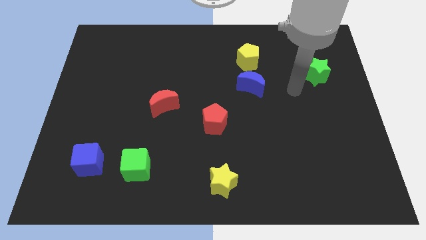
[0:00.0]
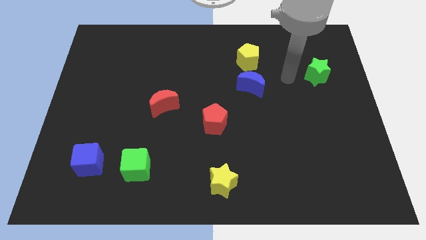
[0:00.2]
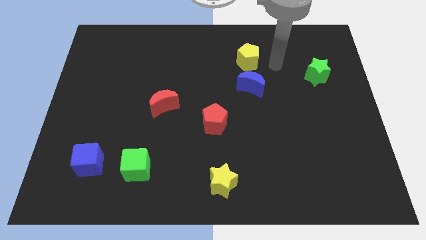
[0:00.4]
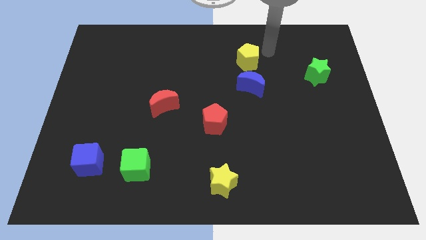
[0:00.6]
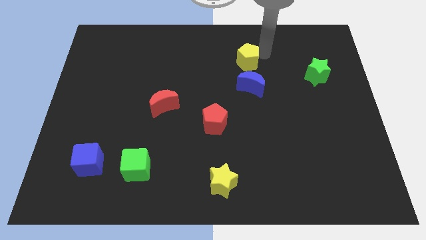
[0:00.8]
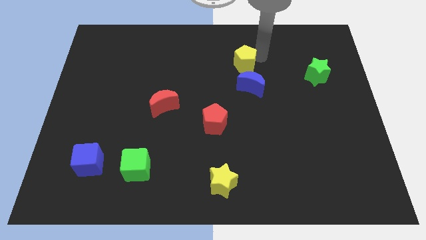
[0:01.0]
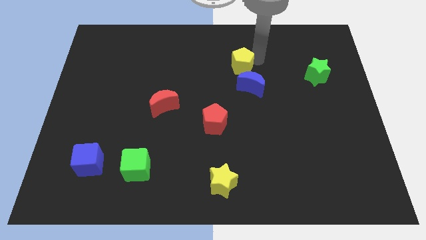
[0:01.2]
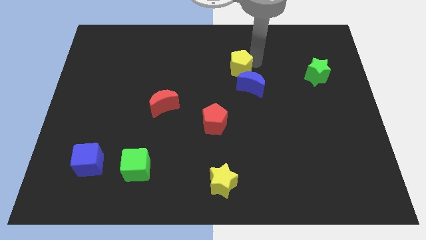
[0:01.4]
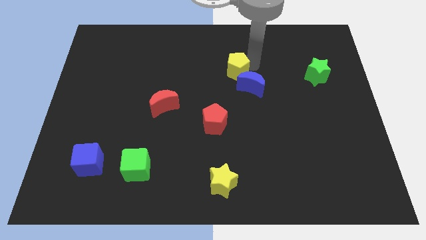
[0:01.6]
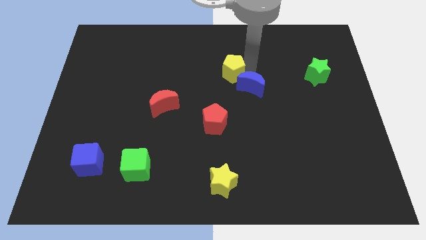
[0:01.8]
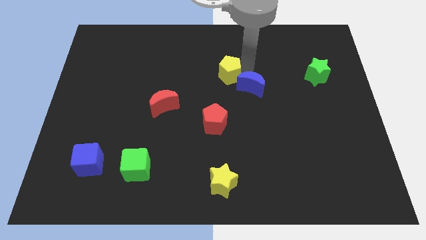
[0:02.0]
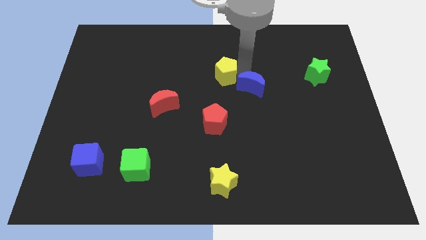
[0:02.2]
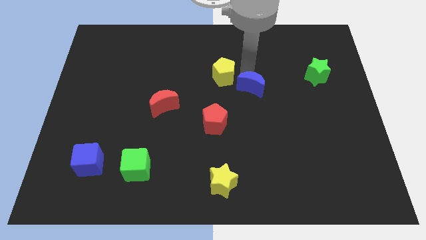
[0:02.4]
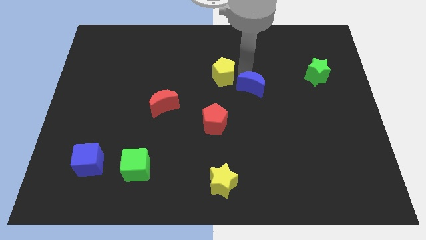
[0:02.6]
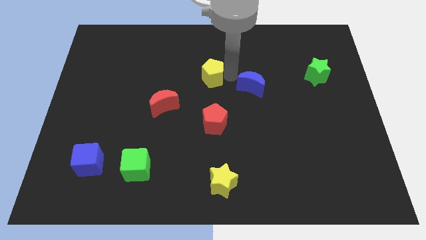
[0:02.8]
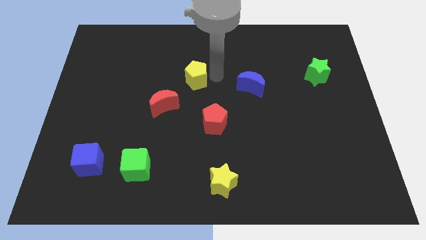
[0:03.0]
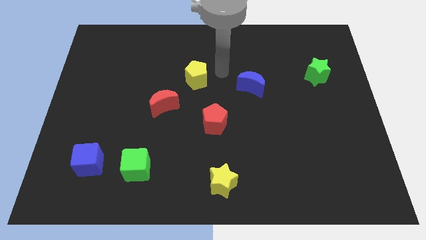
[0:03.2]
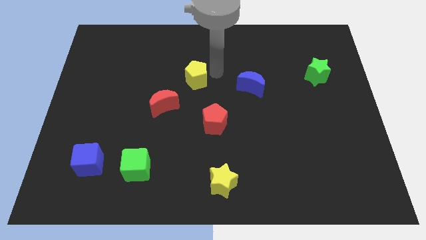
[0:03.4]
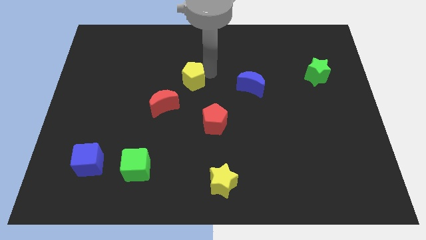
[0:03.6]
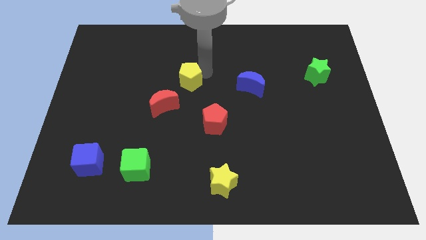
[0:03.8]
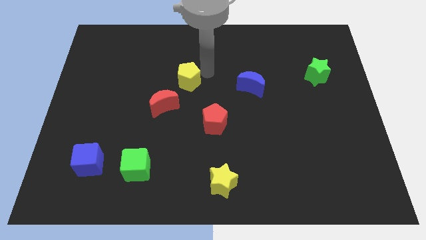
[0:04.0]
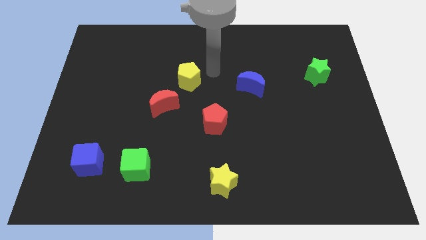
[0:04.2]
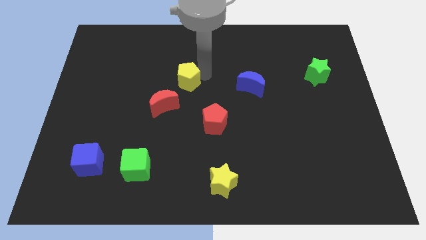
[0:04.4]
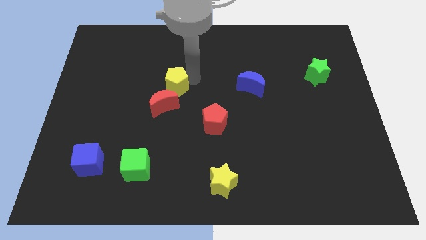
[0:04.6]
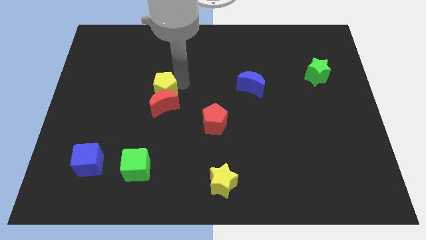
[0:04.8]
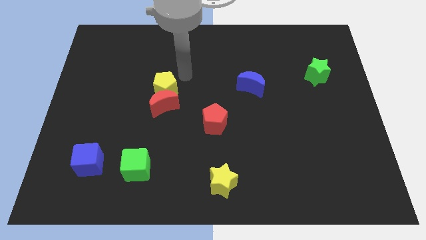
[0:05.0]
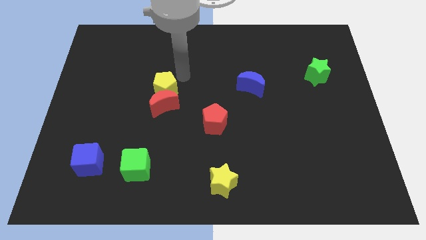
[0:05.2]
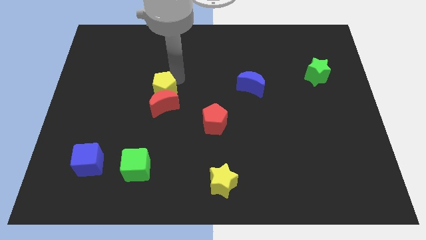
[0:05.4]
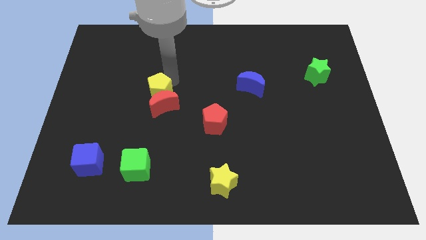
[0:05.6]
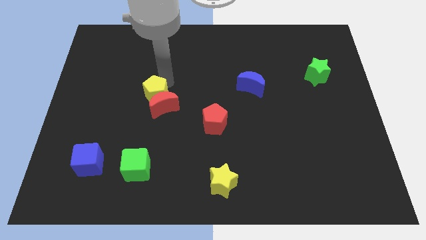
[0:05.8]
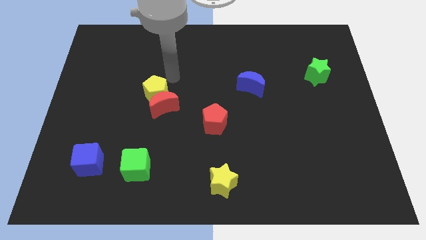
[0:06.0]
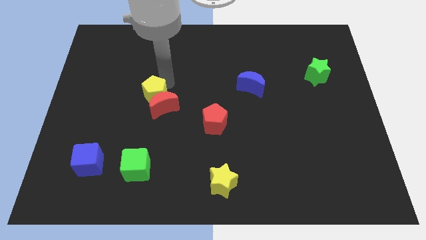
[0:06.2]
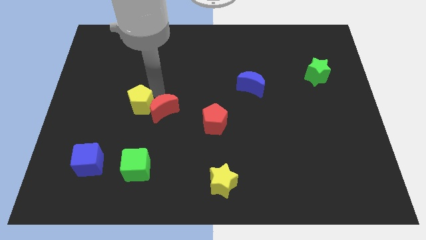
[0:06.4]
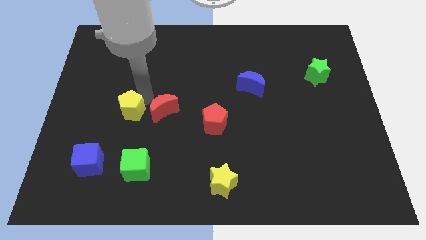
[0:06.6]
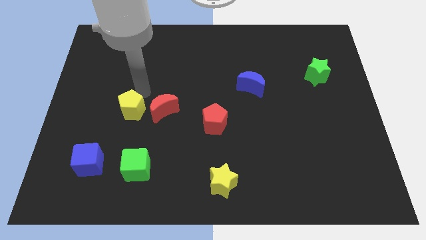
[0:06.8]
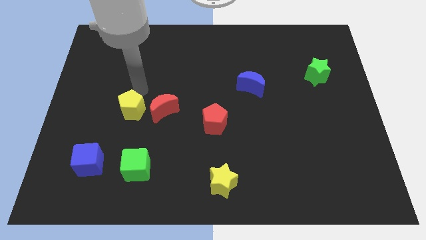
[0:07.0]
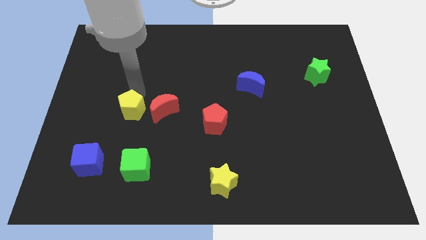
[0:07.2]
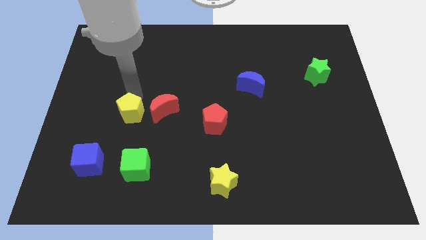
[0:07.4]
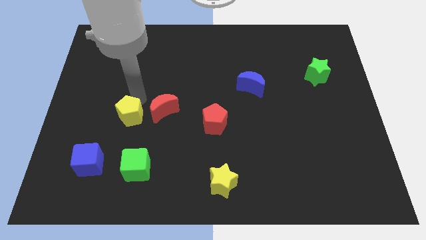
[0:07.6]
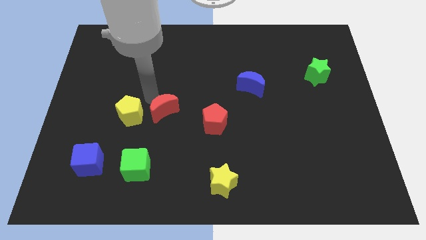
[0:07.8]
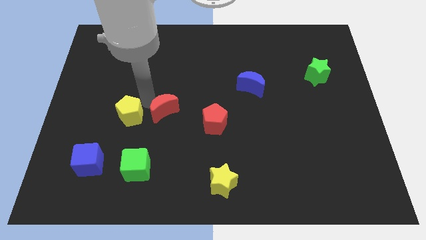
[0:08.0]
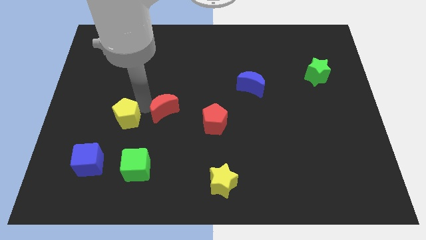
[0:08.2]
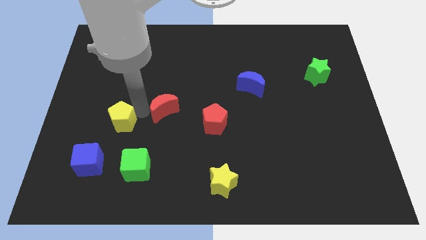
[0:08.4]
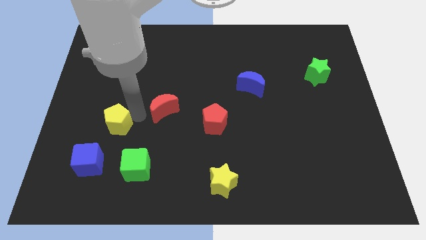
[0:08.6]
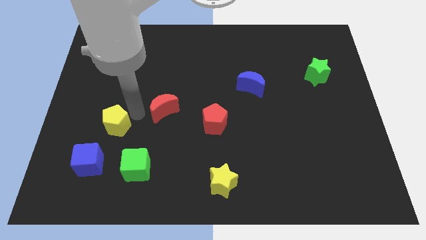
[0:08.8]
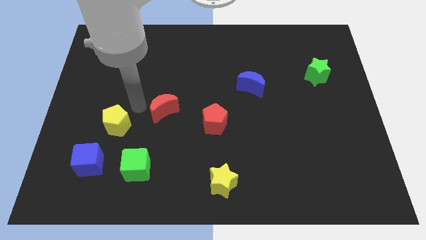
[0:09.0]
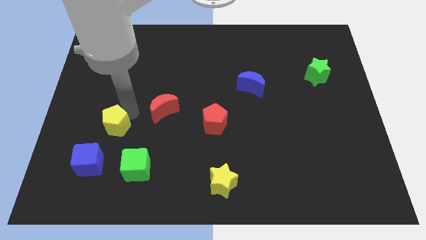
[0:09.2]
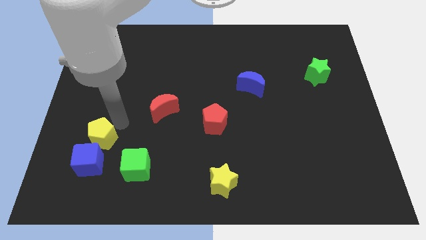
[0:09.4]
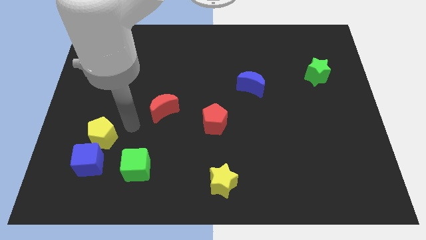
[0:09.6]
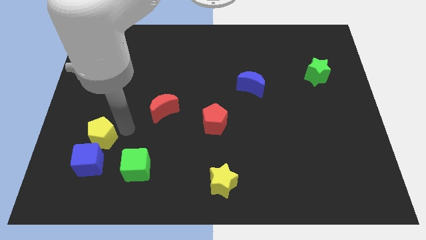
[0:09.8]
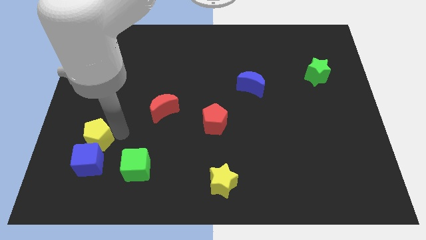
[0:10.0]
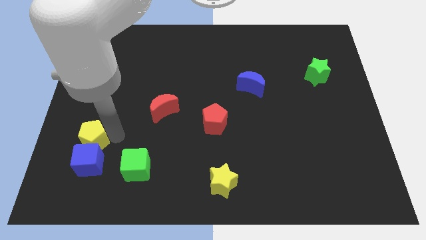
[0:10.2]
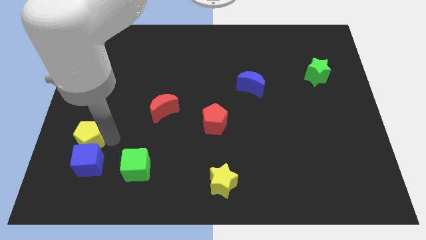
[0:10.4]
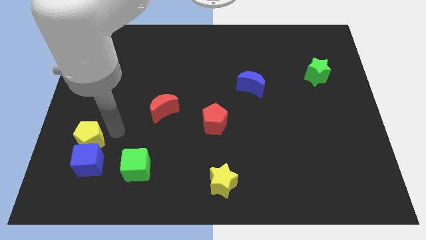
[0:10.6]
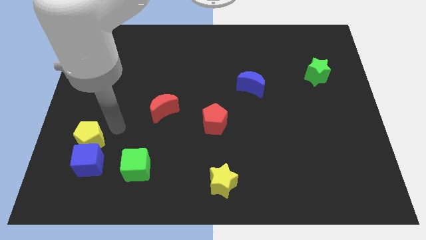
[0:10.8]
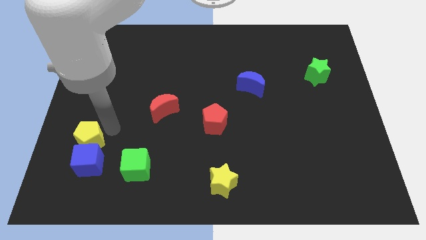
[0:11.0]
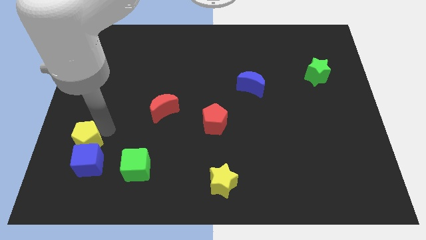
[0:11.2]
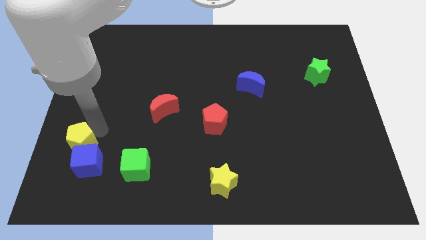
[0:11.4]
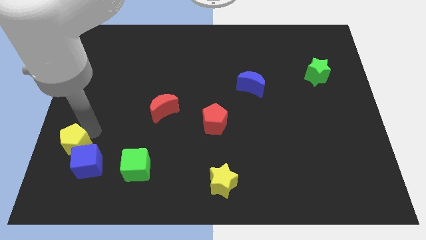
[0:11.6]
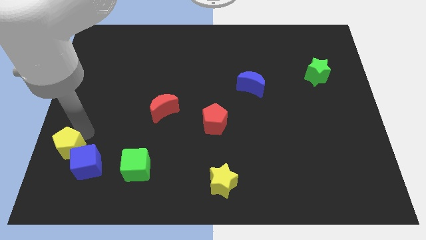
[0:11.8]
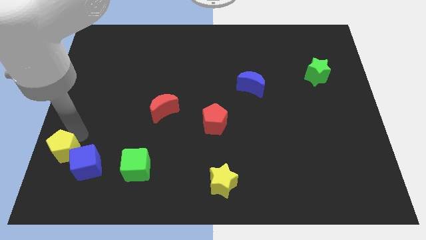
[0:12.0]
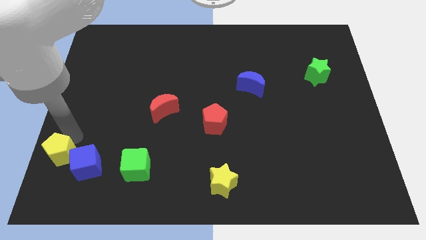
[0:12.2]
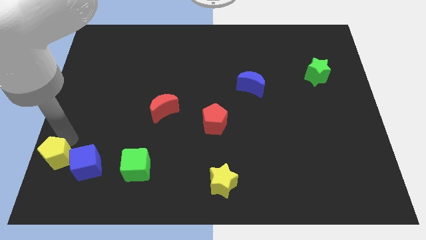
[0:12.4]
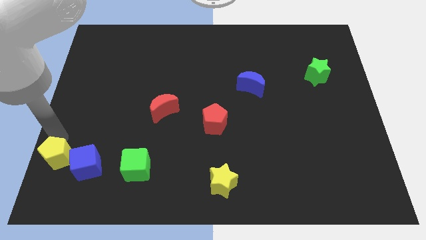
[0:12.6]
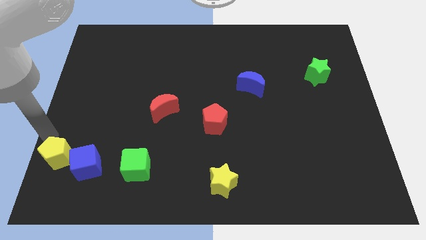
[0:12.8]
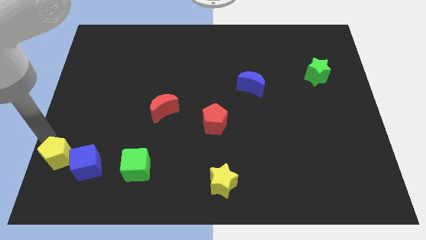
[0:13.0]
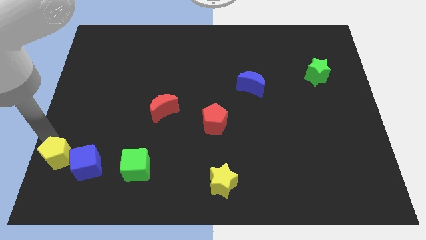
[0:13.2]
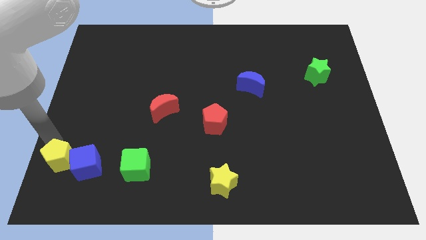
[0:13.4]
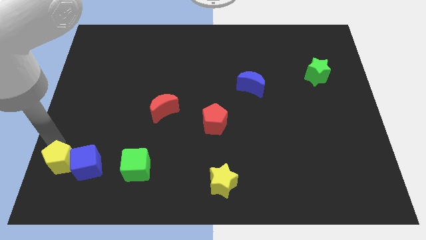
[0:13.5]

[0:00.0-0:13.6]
slide the yellow pentagon left of the green cube

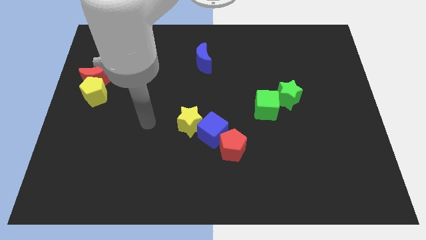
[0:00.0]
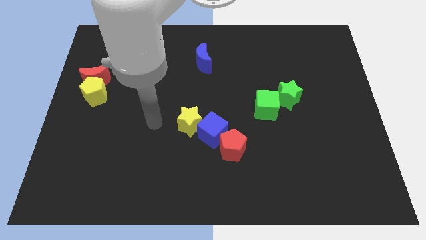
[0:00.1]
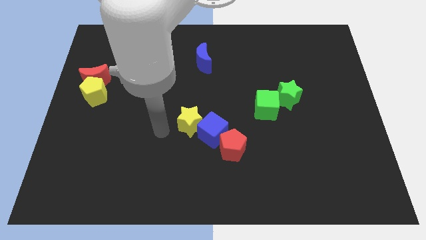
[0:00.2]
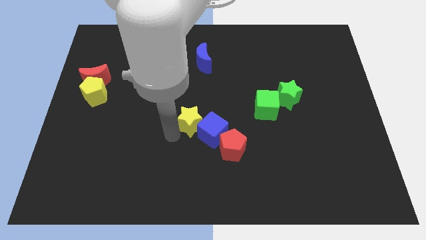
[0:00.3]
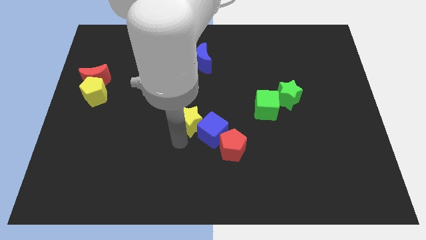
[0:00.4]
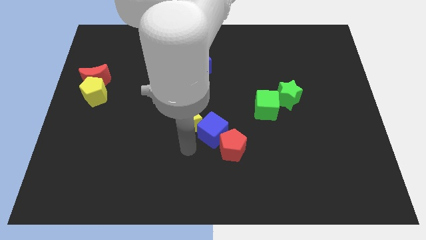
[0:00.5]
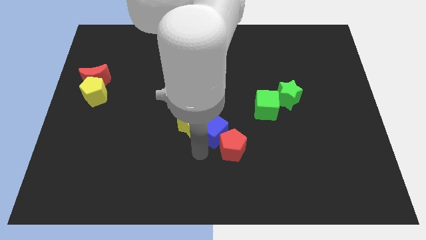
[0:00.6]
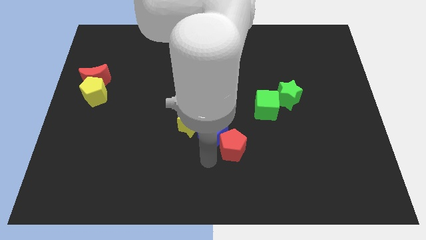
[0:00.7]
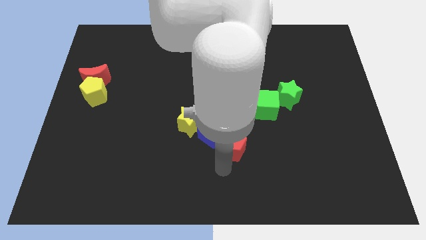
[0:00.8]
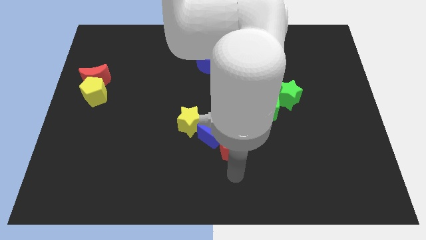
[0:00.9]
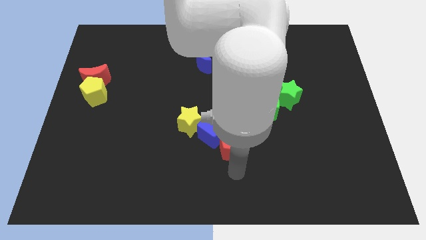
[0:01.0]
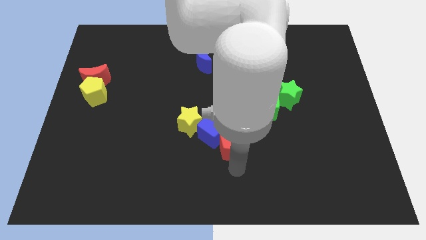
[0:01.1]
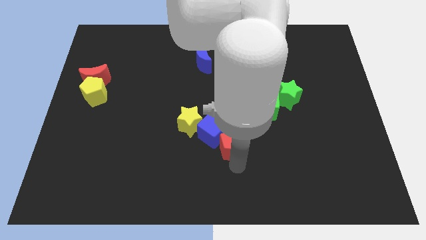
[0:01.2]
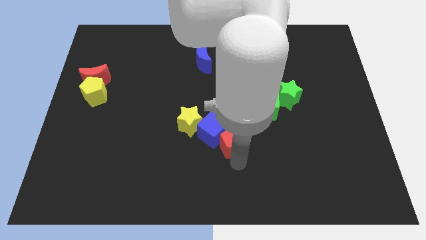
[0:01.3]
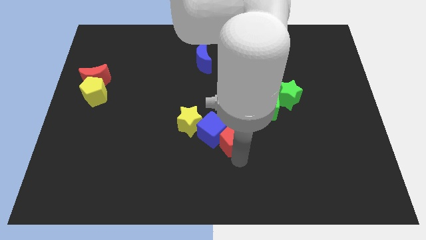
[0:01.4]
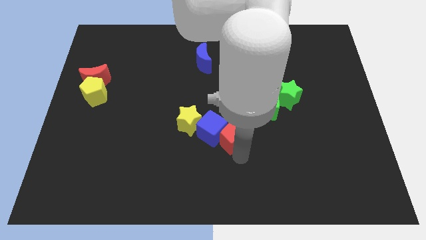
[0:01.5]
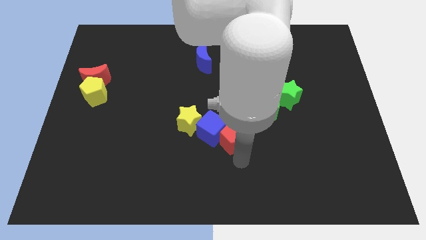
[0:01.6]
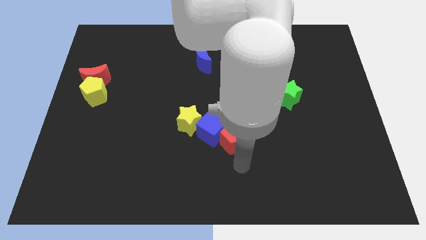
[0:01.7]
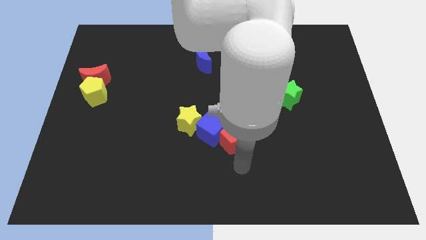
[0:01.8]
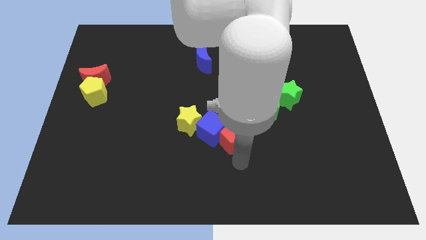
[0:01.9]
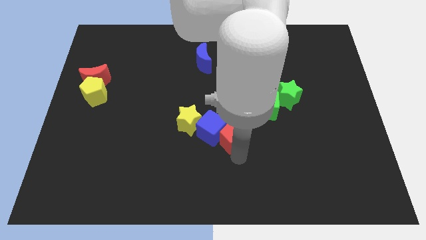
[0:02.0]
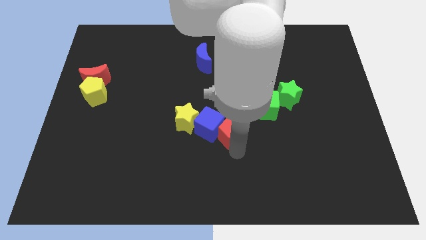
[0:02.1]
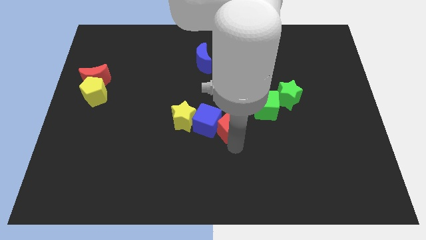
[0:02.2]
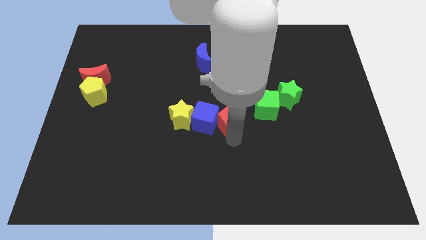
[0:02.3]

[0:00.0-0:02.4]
put the red pentagon to the left side of the green cube
